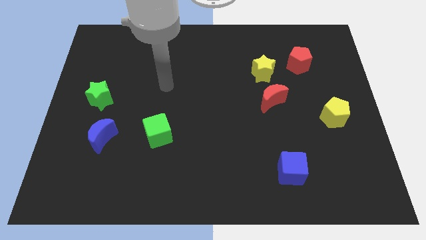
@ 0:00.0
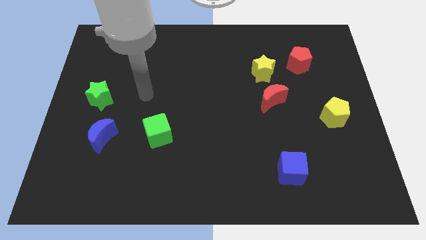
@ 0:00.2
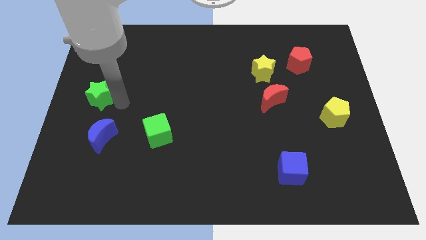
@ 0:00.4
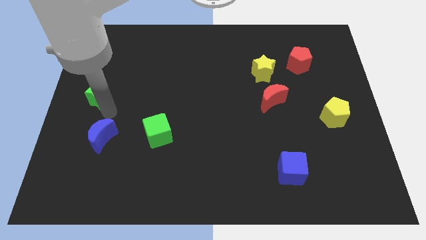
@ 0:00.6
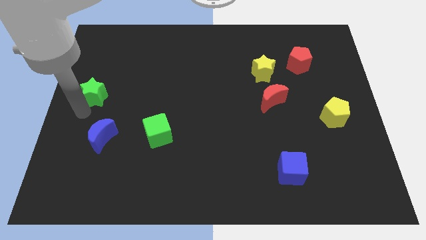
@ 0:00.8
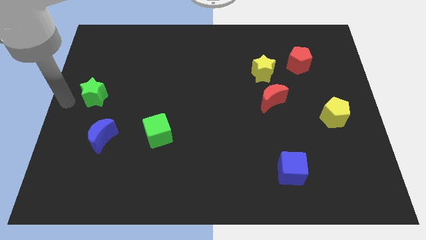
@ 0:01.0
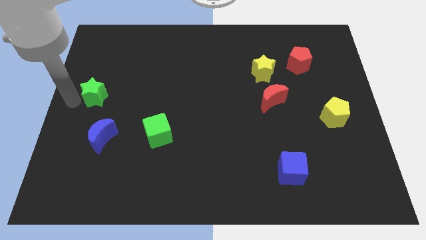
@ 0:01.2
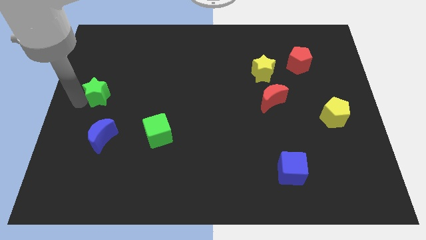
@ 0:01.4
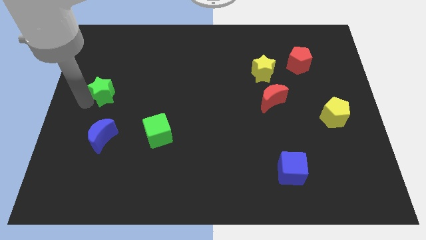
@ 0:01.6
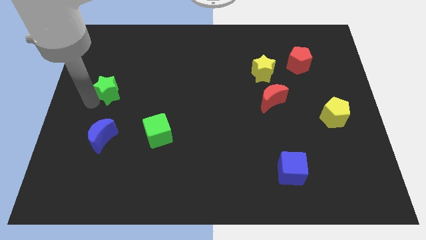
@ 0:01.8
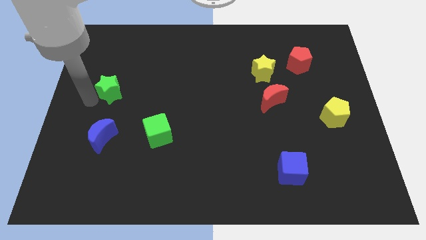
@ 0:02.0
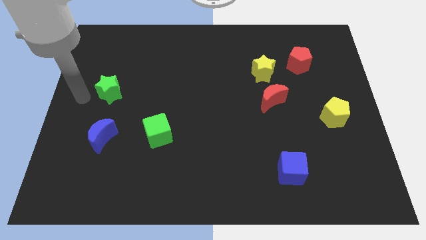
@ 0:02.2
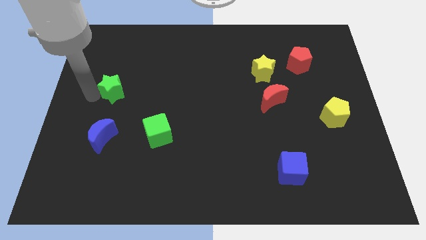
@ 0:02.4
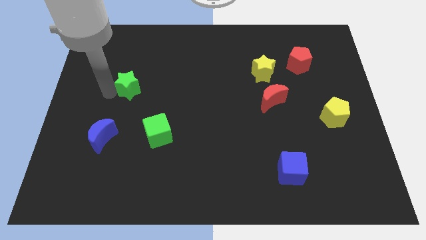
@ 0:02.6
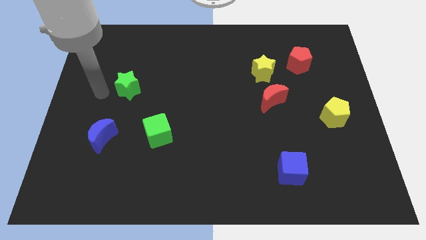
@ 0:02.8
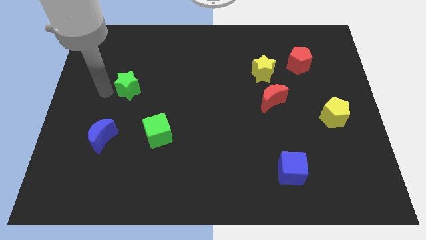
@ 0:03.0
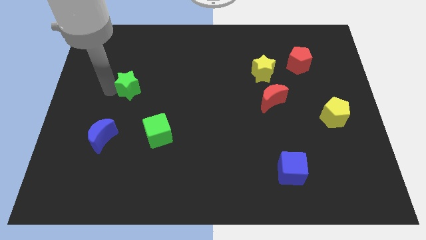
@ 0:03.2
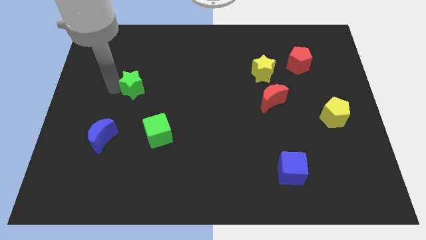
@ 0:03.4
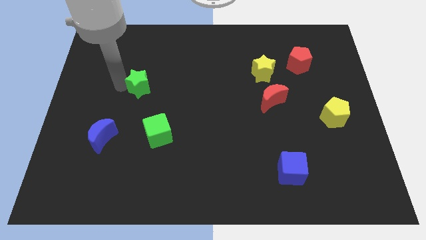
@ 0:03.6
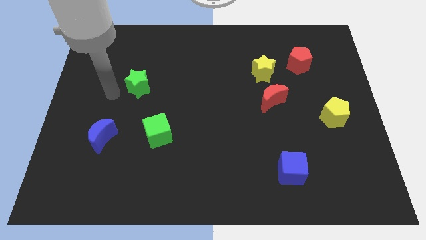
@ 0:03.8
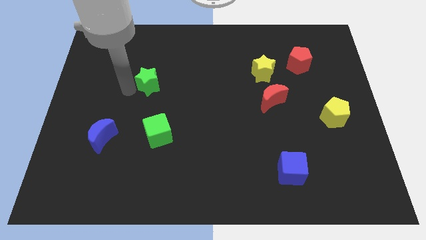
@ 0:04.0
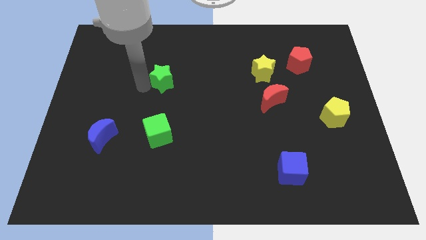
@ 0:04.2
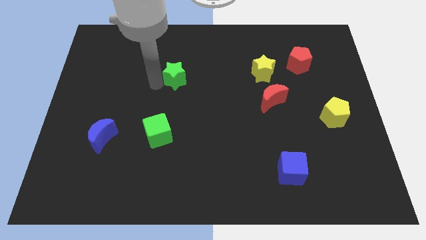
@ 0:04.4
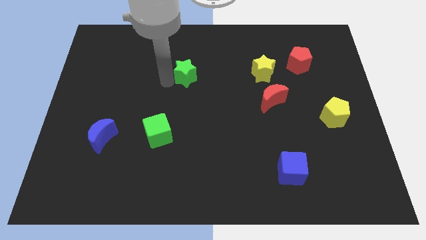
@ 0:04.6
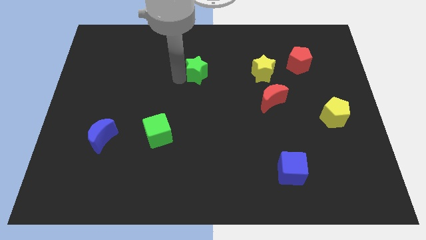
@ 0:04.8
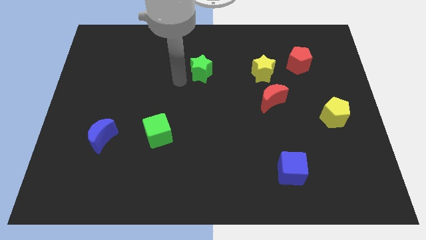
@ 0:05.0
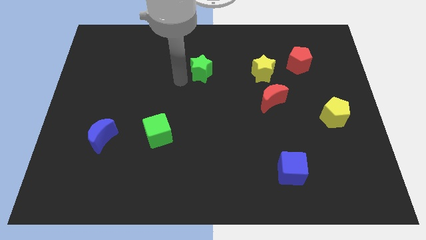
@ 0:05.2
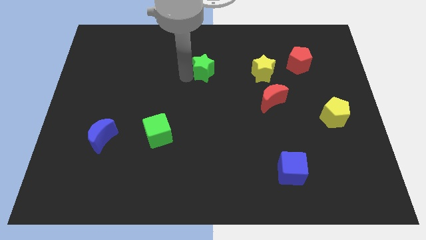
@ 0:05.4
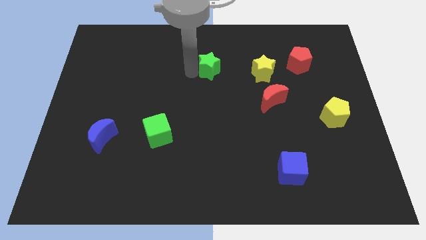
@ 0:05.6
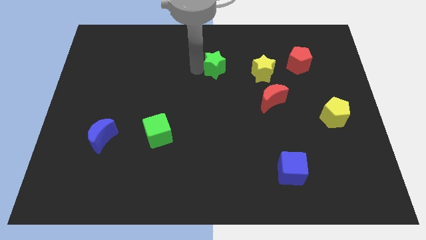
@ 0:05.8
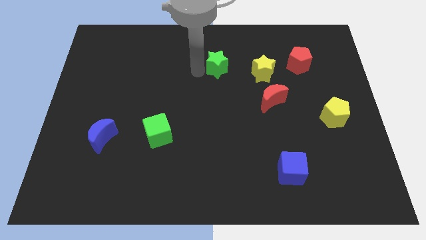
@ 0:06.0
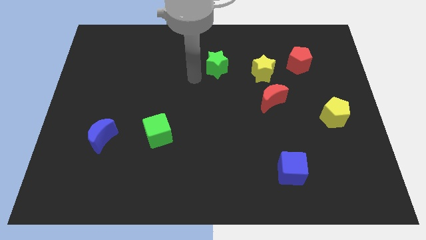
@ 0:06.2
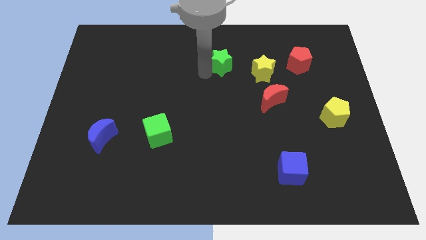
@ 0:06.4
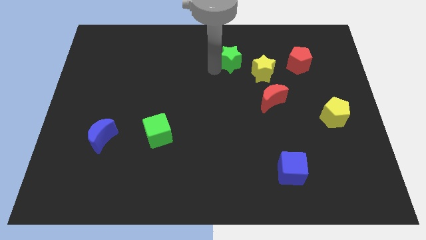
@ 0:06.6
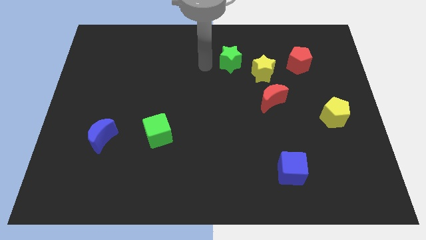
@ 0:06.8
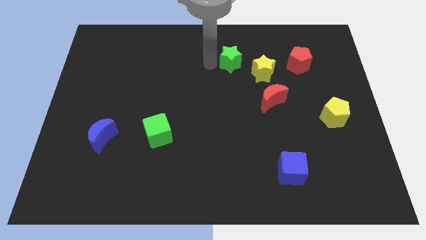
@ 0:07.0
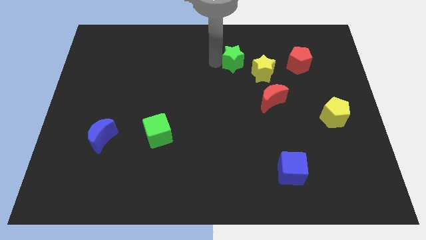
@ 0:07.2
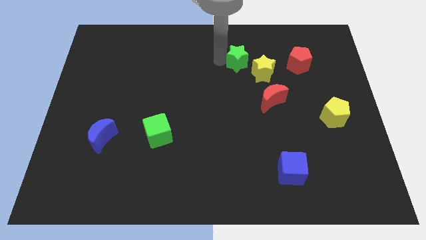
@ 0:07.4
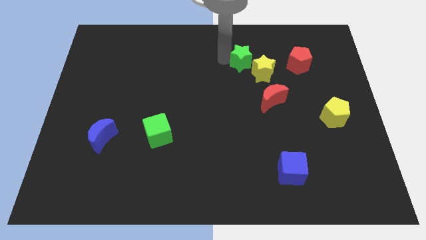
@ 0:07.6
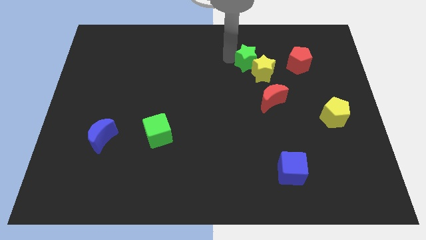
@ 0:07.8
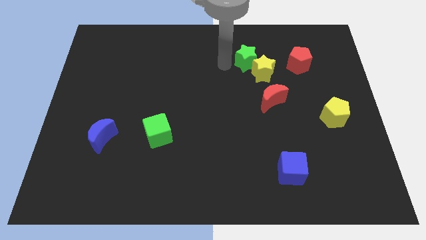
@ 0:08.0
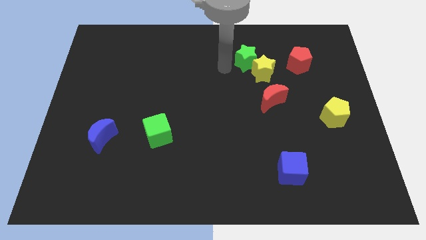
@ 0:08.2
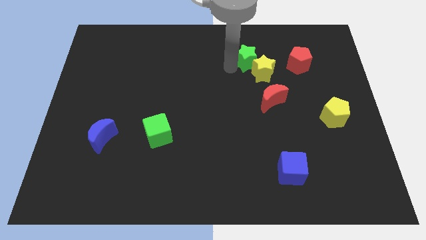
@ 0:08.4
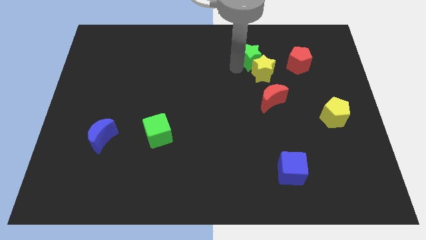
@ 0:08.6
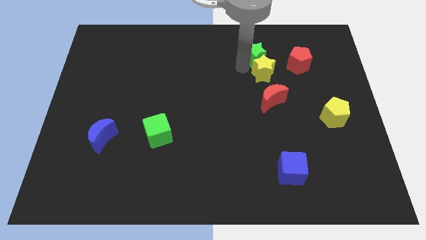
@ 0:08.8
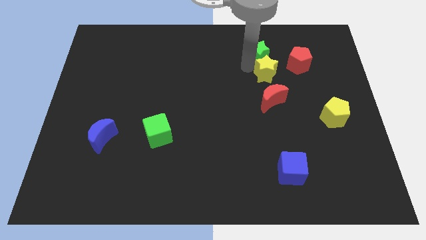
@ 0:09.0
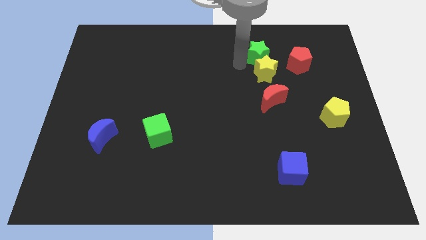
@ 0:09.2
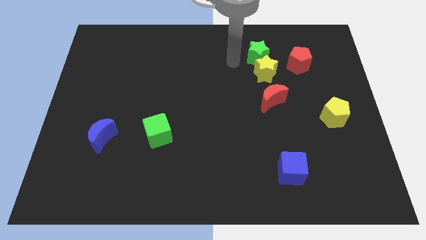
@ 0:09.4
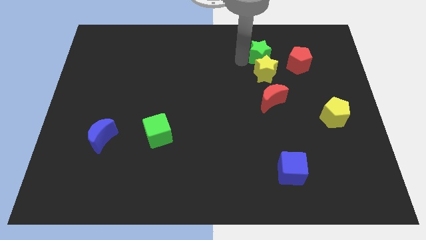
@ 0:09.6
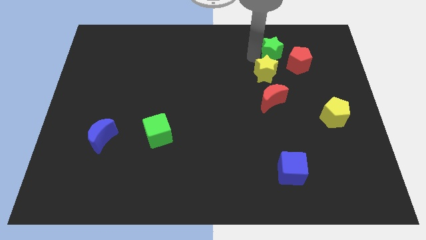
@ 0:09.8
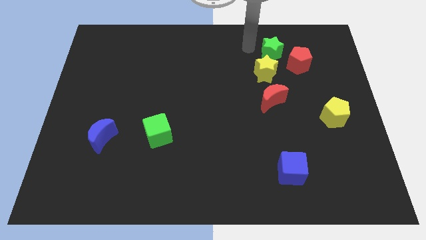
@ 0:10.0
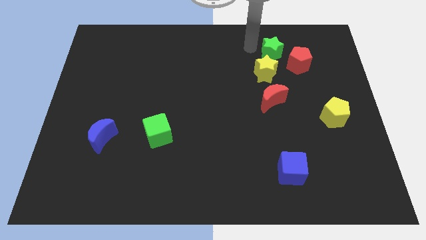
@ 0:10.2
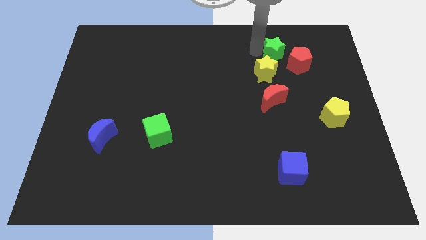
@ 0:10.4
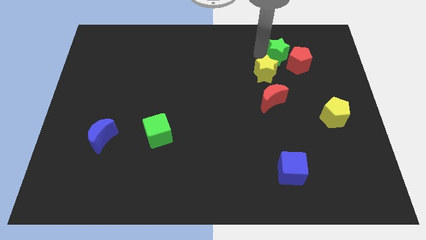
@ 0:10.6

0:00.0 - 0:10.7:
put the green star next to the red pentagon

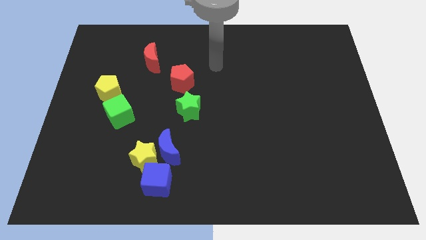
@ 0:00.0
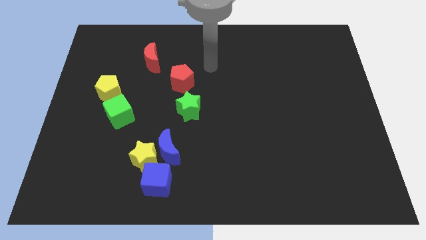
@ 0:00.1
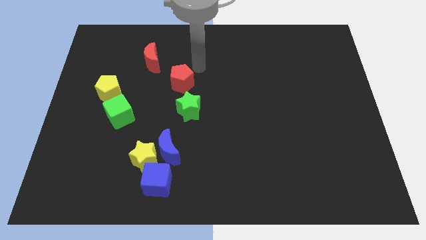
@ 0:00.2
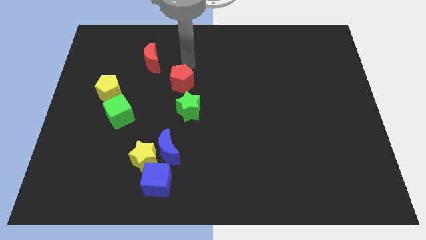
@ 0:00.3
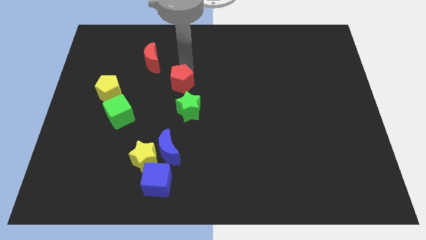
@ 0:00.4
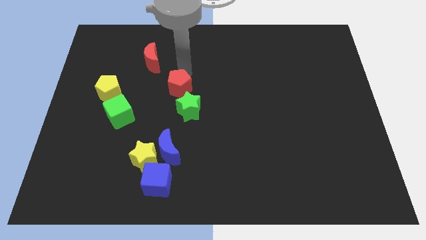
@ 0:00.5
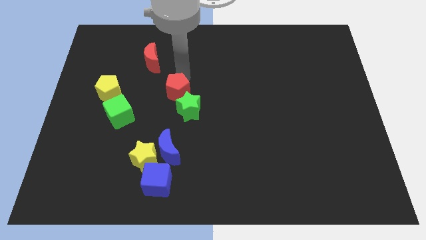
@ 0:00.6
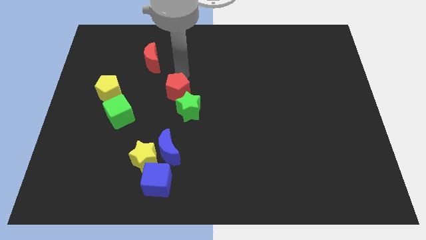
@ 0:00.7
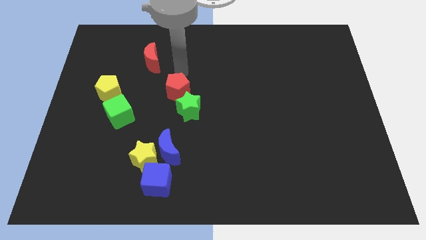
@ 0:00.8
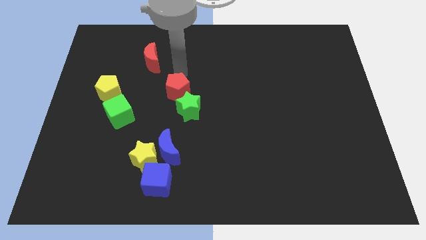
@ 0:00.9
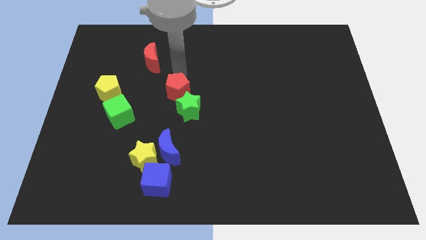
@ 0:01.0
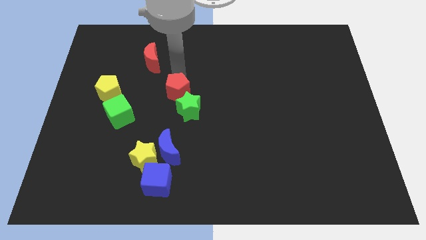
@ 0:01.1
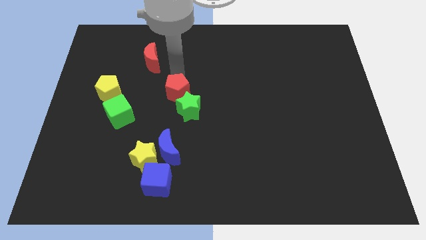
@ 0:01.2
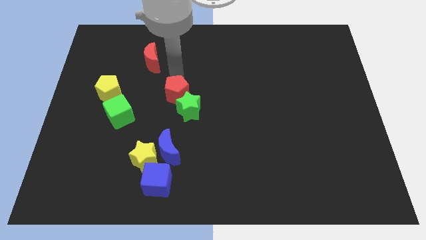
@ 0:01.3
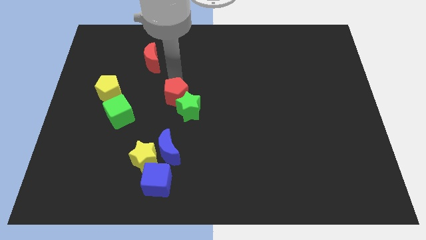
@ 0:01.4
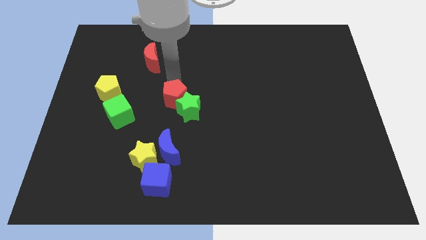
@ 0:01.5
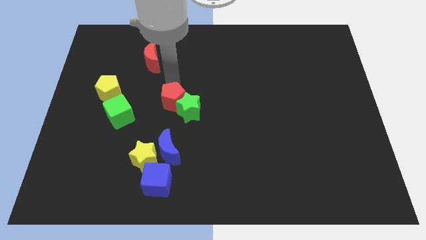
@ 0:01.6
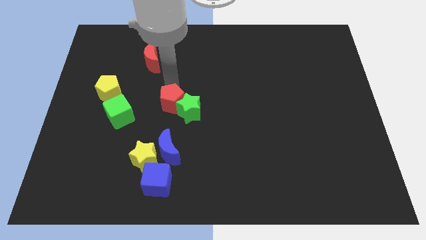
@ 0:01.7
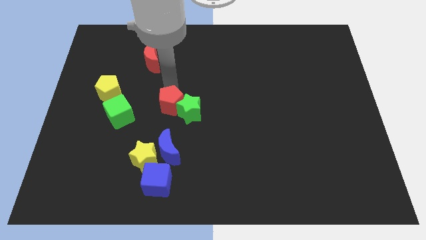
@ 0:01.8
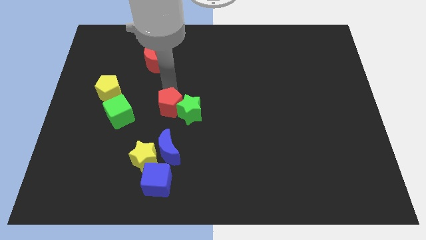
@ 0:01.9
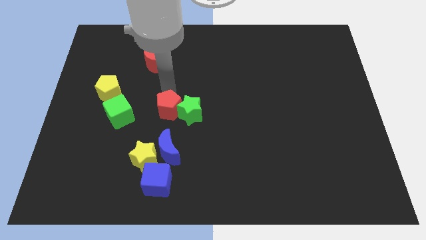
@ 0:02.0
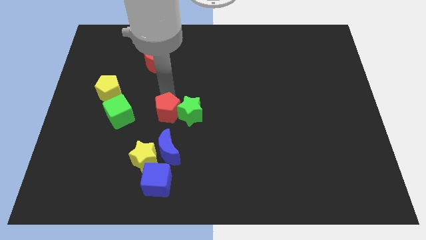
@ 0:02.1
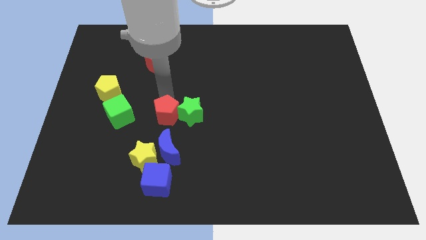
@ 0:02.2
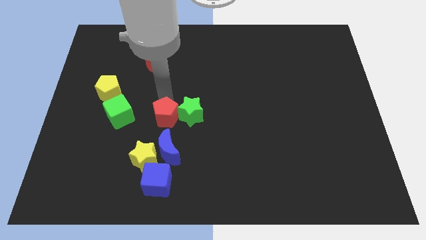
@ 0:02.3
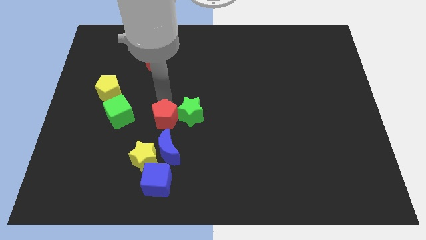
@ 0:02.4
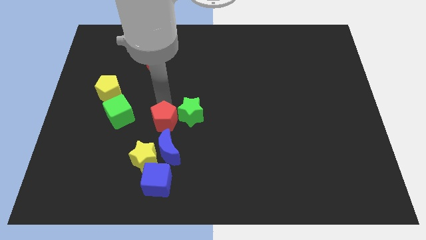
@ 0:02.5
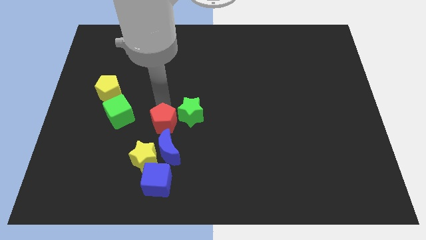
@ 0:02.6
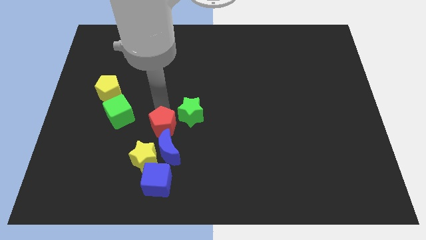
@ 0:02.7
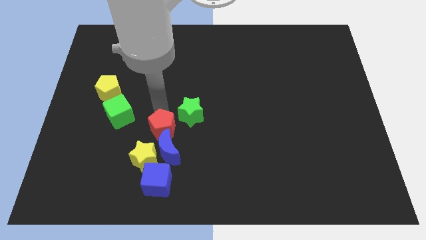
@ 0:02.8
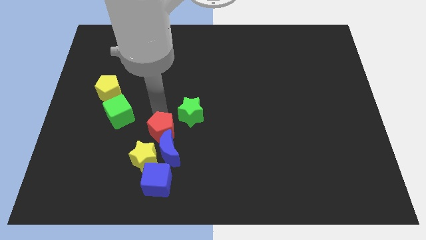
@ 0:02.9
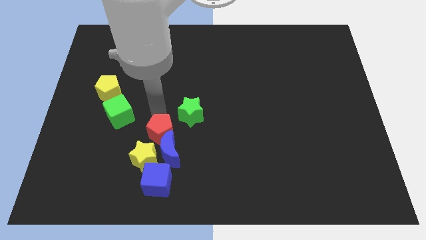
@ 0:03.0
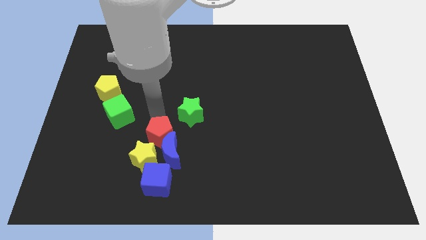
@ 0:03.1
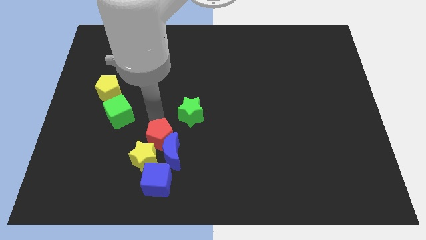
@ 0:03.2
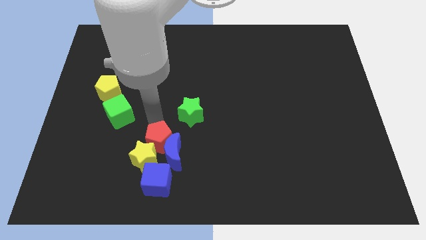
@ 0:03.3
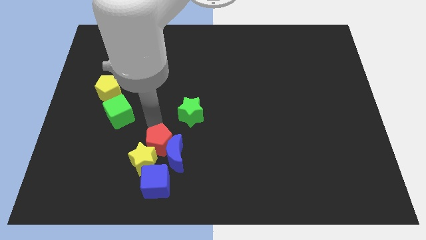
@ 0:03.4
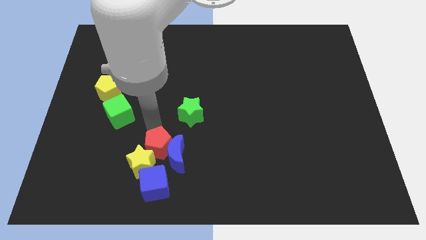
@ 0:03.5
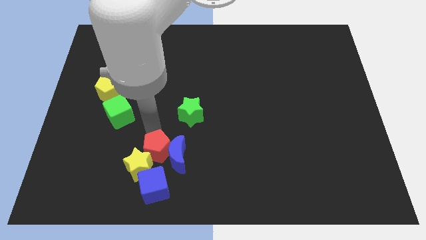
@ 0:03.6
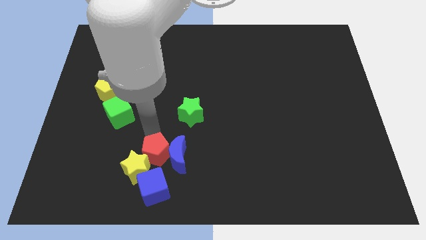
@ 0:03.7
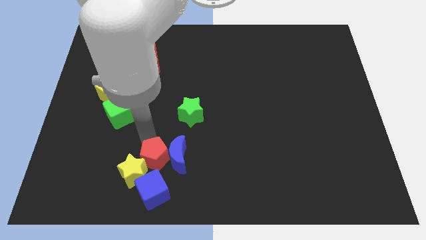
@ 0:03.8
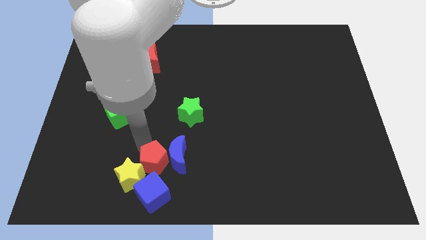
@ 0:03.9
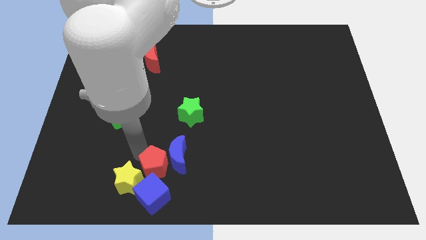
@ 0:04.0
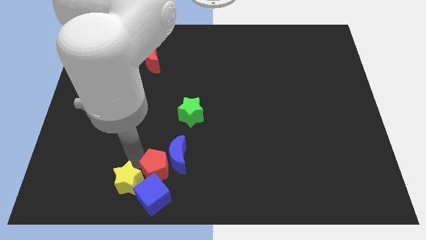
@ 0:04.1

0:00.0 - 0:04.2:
slide the red pentagon next to the blue cube
